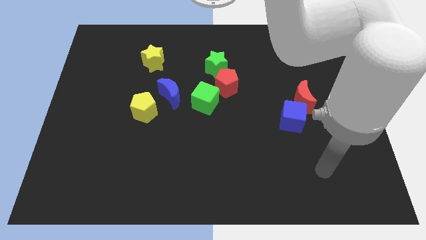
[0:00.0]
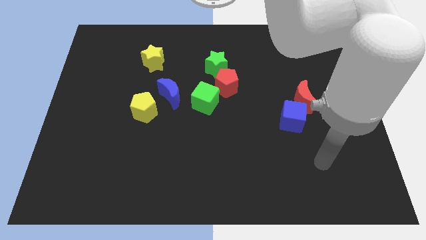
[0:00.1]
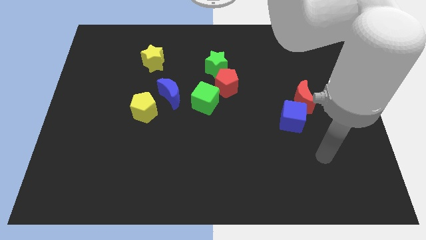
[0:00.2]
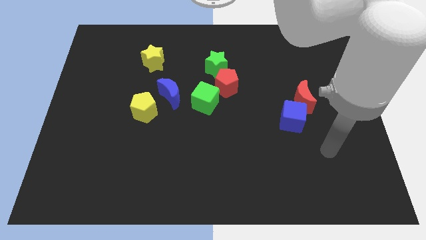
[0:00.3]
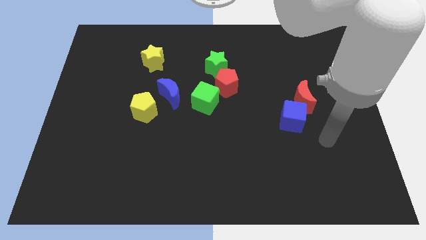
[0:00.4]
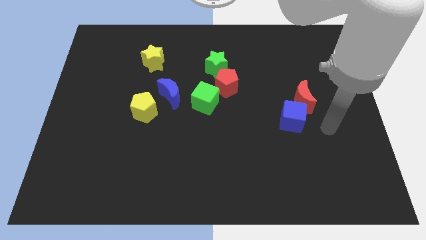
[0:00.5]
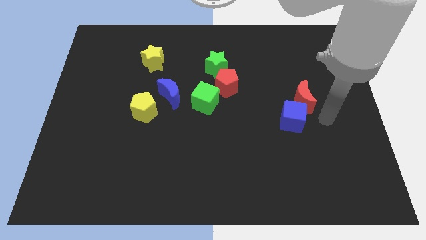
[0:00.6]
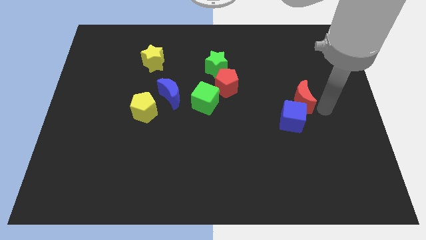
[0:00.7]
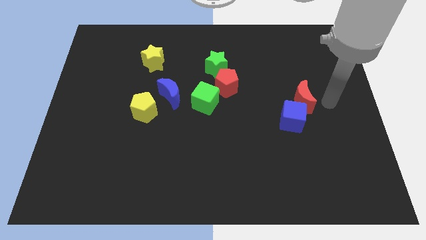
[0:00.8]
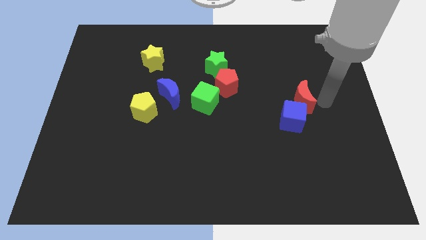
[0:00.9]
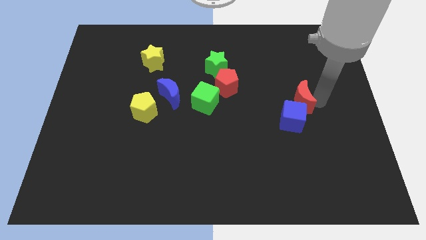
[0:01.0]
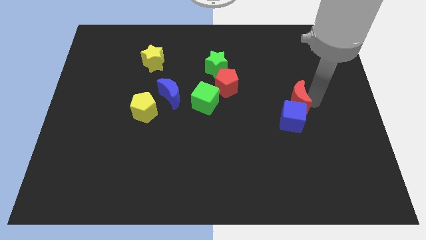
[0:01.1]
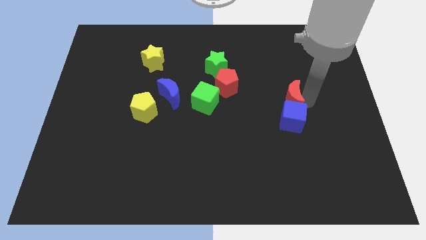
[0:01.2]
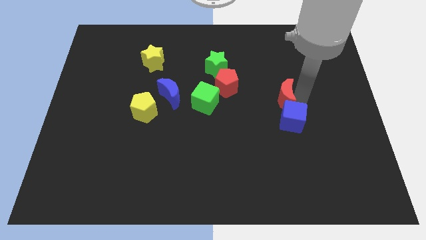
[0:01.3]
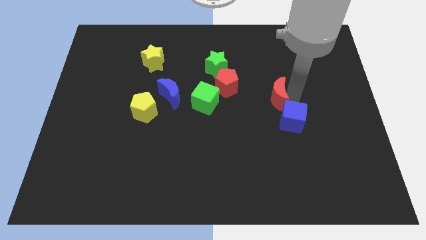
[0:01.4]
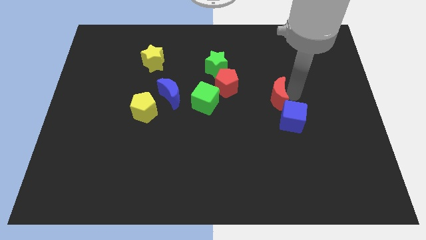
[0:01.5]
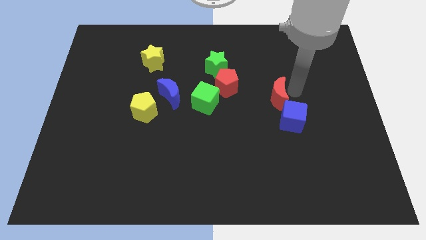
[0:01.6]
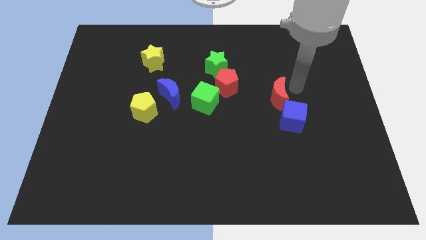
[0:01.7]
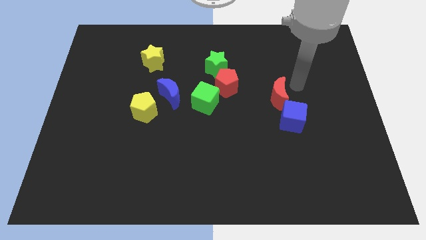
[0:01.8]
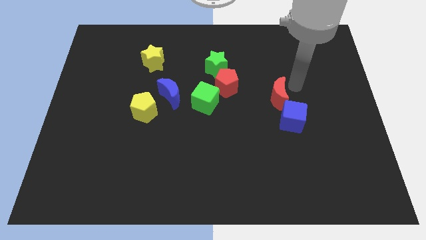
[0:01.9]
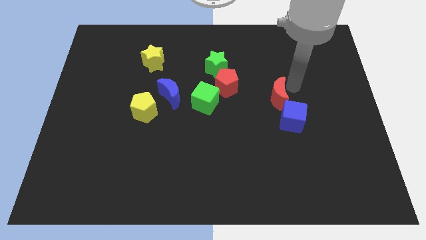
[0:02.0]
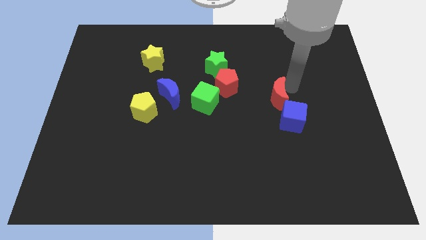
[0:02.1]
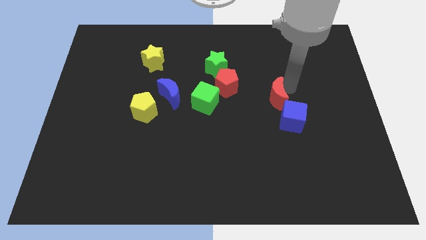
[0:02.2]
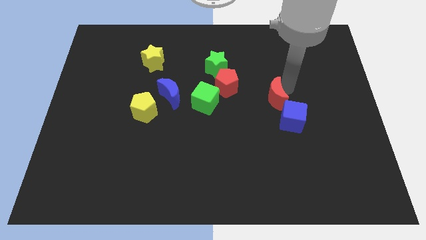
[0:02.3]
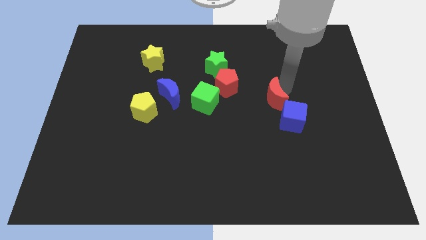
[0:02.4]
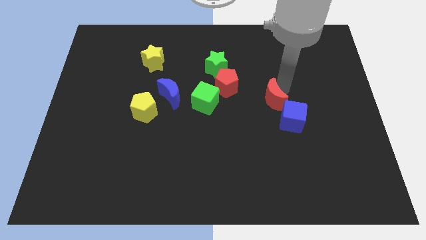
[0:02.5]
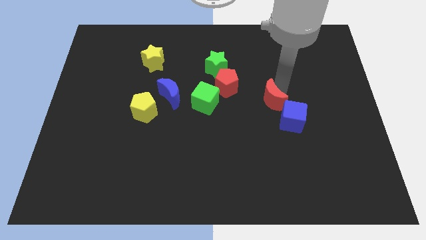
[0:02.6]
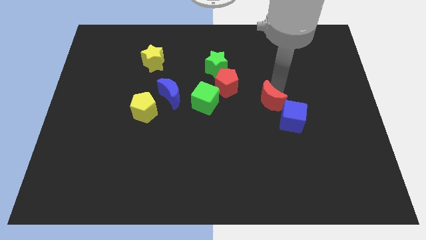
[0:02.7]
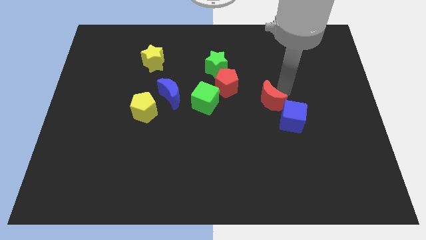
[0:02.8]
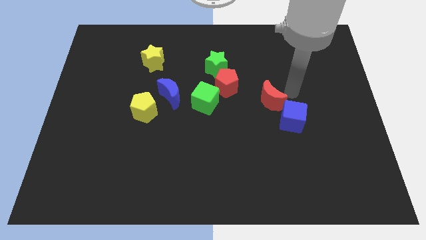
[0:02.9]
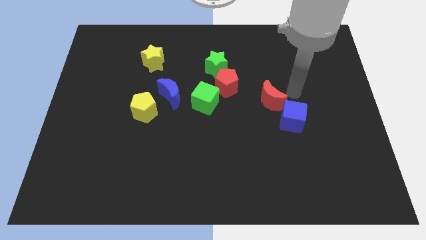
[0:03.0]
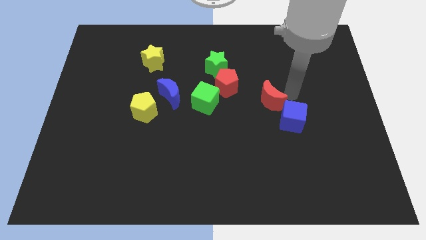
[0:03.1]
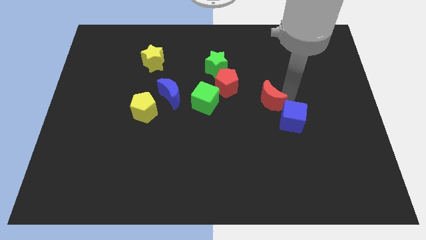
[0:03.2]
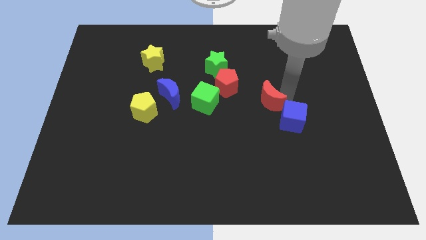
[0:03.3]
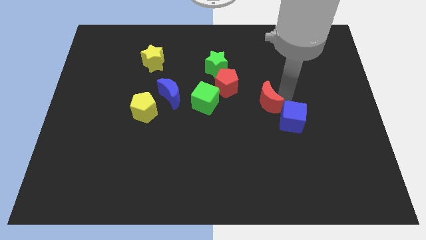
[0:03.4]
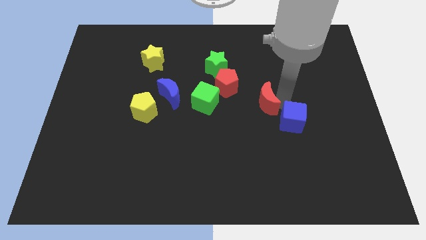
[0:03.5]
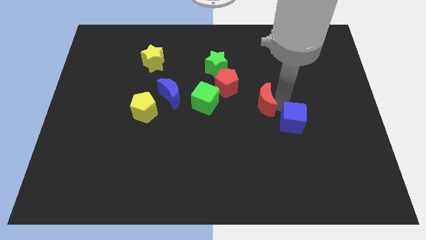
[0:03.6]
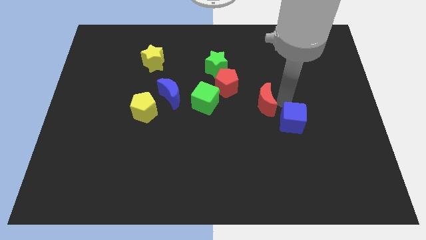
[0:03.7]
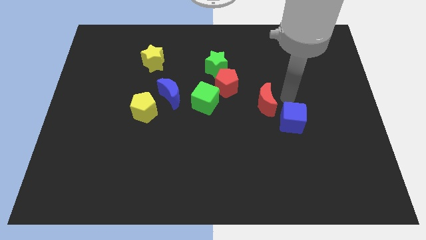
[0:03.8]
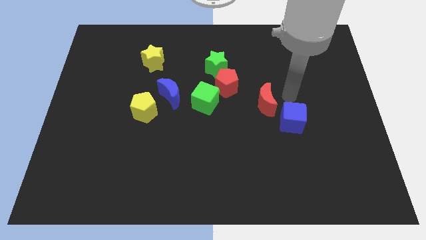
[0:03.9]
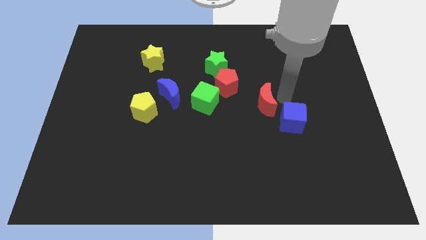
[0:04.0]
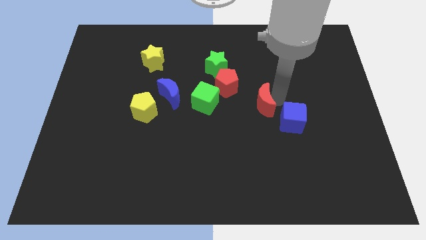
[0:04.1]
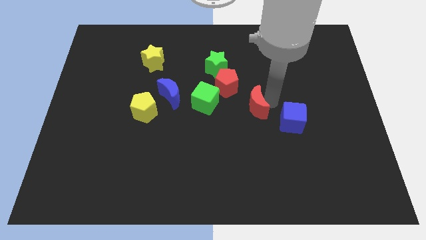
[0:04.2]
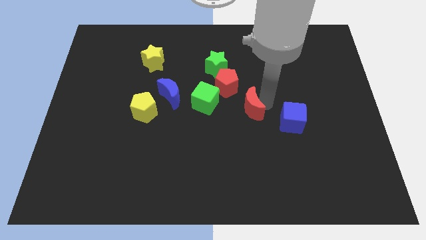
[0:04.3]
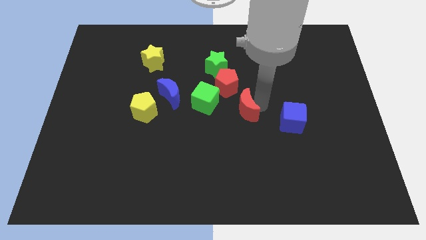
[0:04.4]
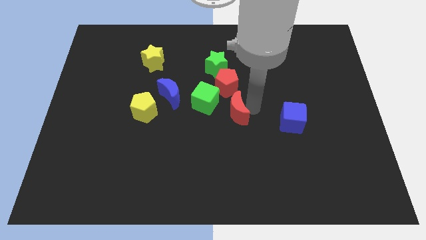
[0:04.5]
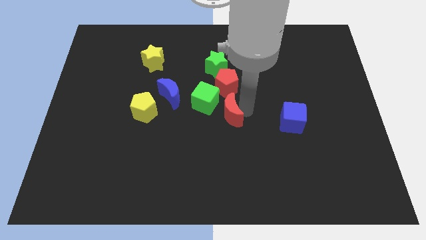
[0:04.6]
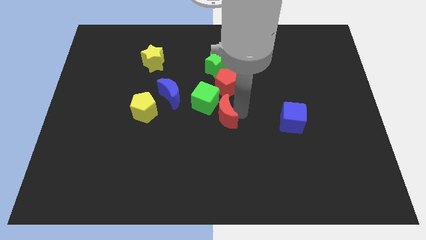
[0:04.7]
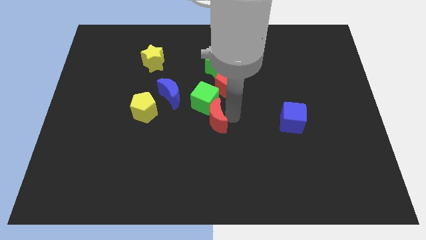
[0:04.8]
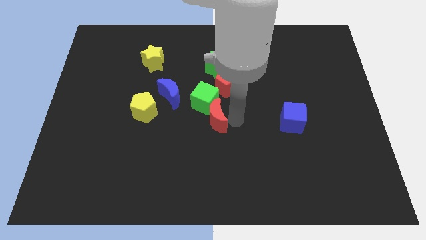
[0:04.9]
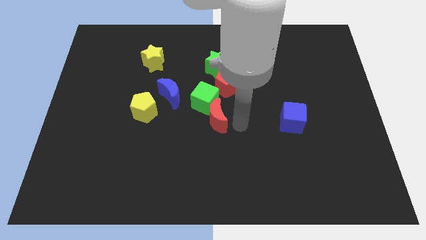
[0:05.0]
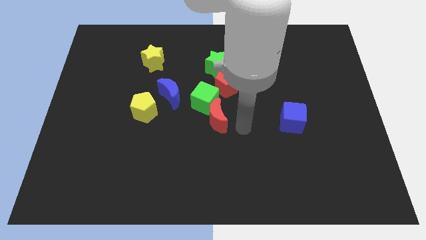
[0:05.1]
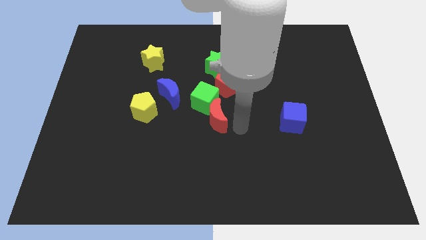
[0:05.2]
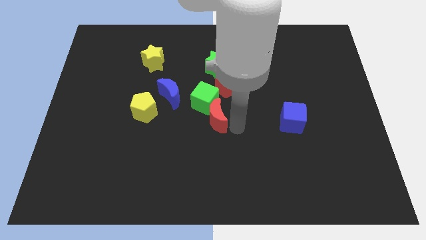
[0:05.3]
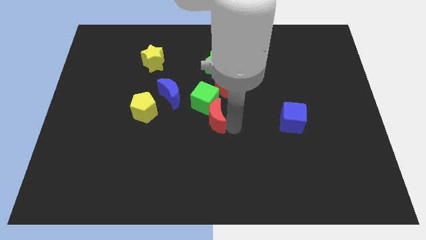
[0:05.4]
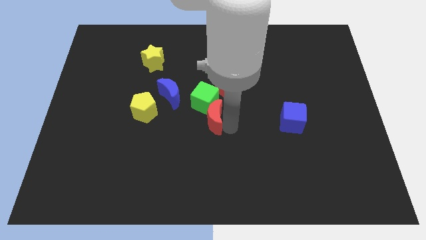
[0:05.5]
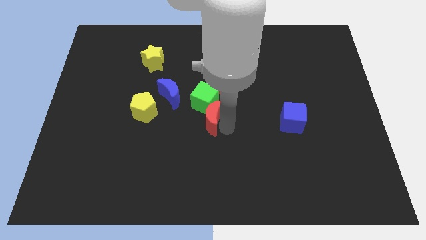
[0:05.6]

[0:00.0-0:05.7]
push the red moon to the right side of the yellow pentagon

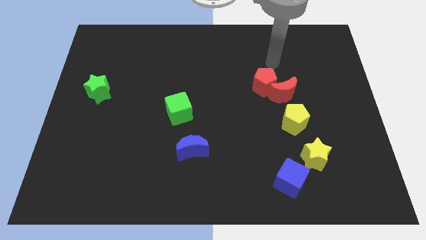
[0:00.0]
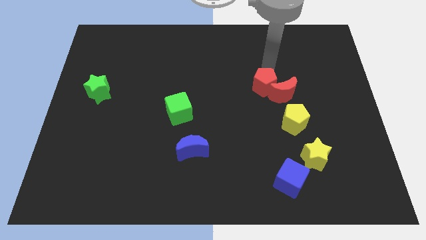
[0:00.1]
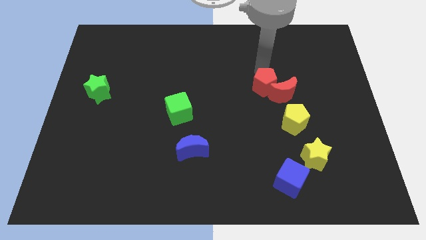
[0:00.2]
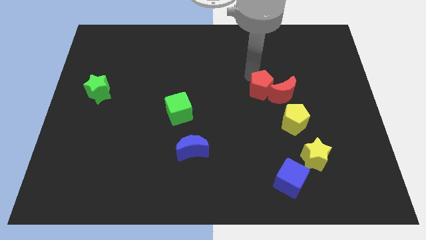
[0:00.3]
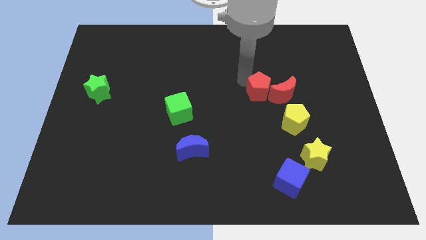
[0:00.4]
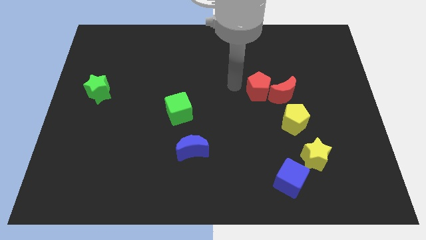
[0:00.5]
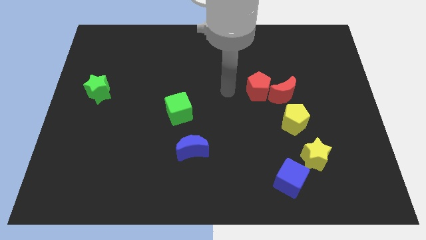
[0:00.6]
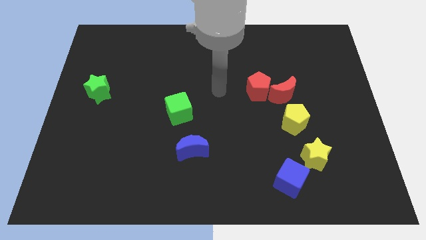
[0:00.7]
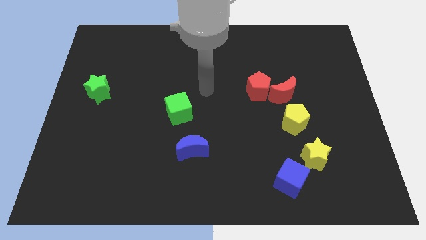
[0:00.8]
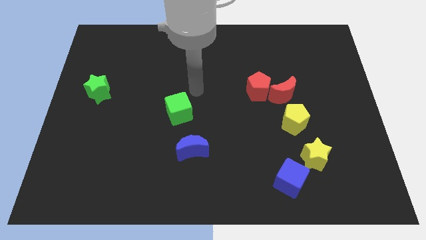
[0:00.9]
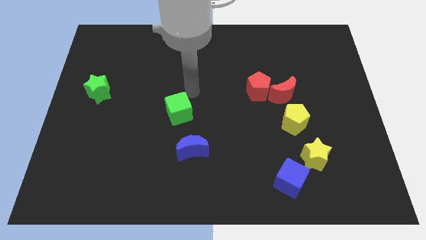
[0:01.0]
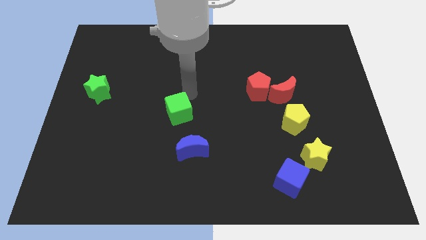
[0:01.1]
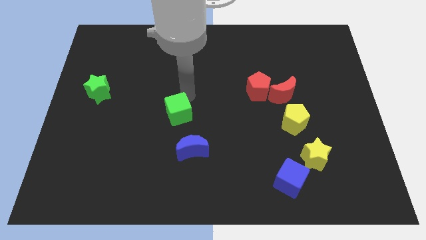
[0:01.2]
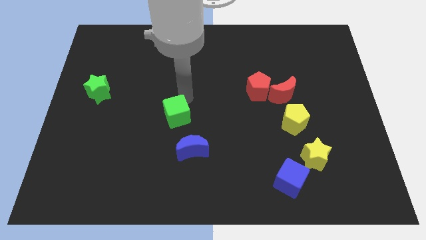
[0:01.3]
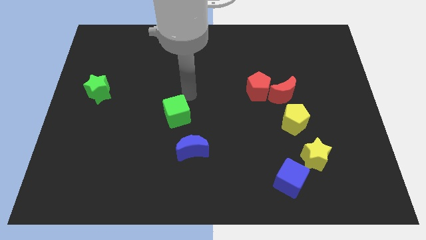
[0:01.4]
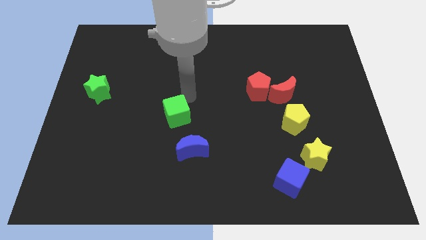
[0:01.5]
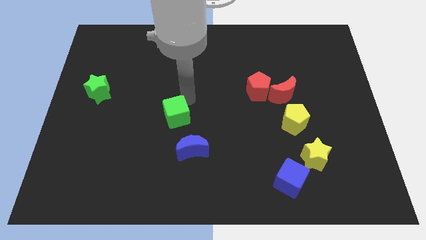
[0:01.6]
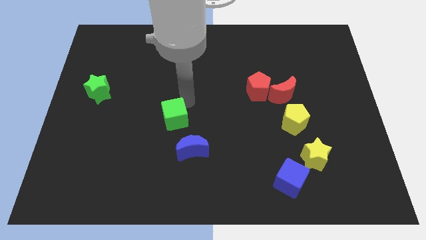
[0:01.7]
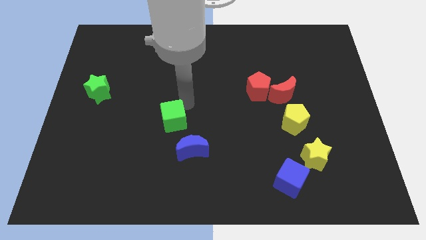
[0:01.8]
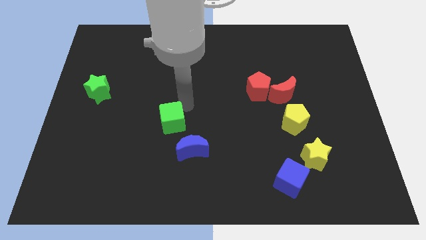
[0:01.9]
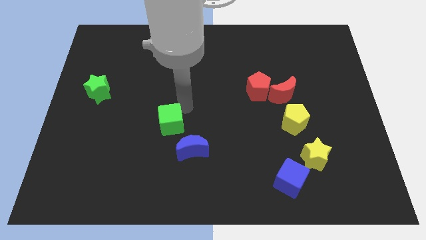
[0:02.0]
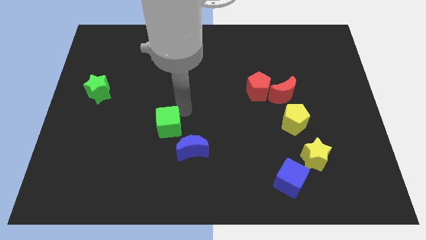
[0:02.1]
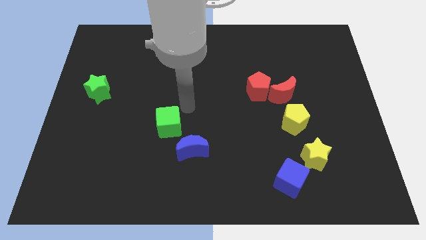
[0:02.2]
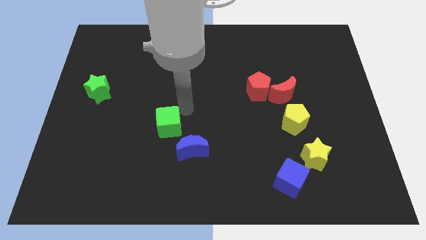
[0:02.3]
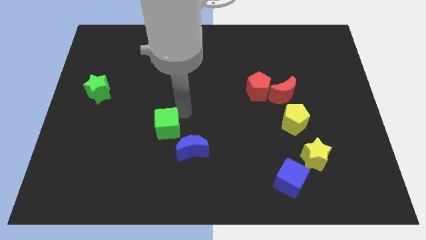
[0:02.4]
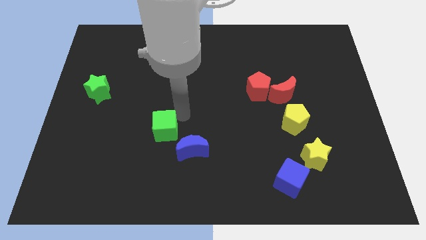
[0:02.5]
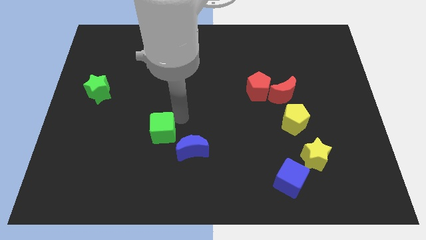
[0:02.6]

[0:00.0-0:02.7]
push the green cube just left of the blue moon
